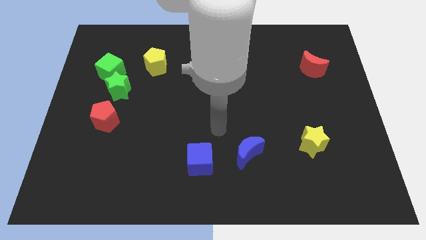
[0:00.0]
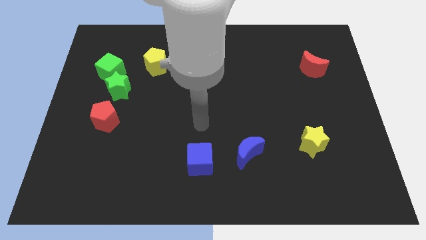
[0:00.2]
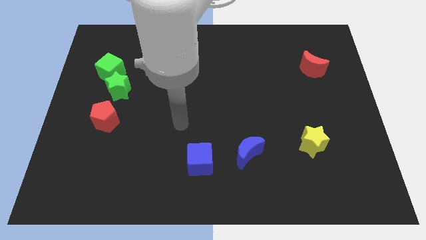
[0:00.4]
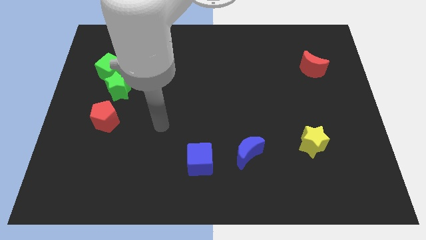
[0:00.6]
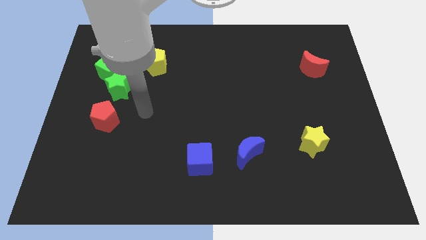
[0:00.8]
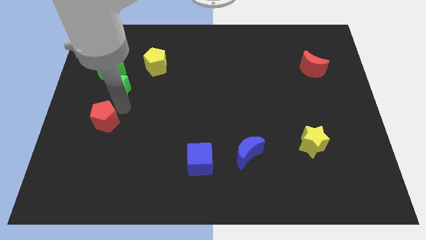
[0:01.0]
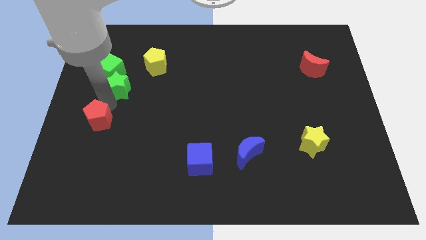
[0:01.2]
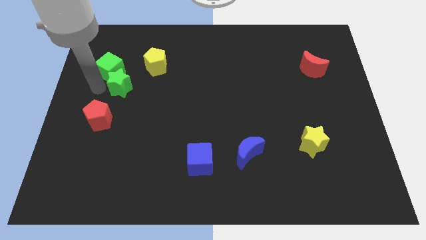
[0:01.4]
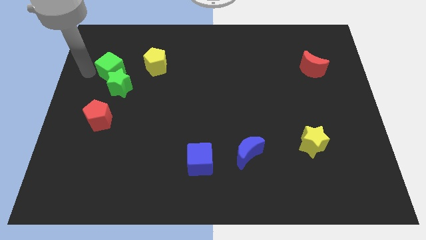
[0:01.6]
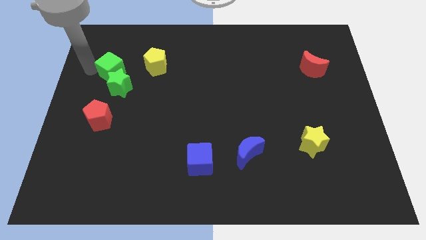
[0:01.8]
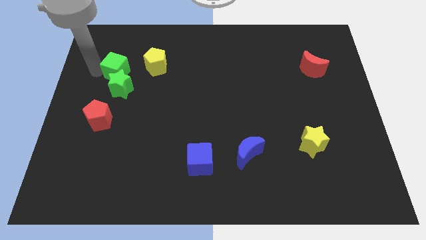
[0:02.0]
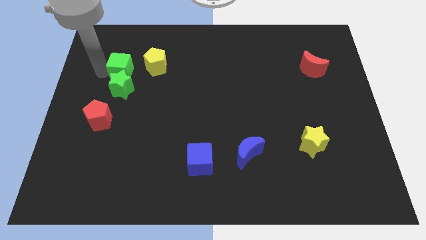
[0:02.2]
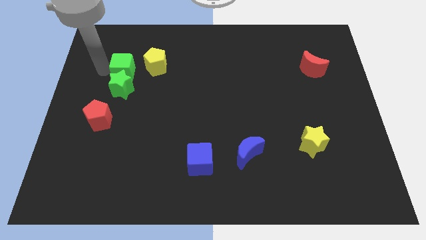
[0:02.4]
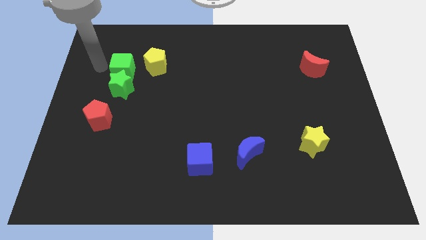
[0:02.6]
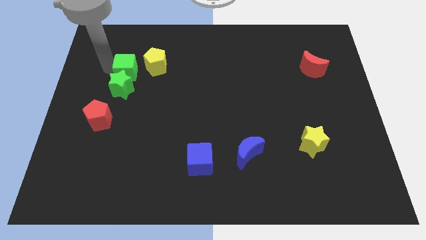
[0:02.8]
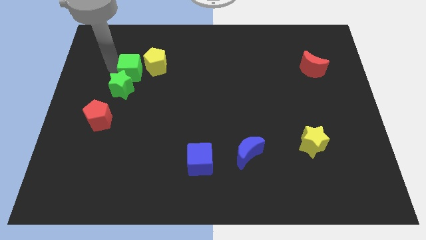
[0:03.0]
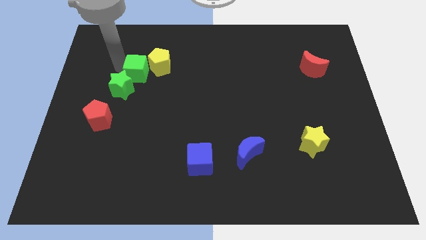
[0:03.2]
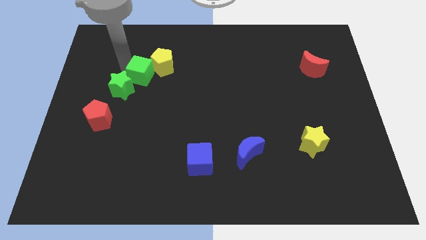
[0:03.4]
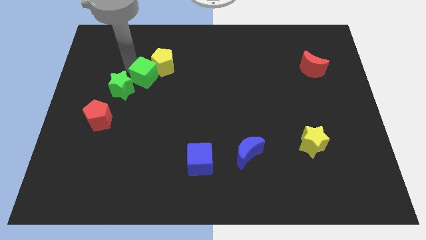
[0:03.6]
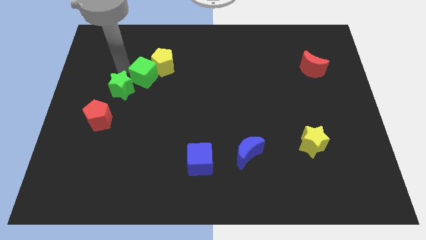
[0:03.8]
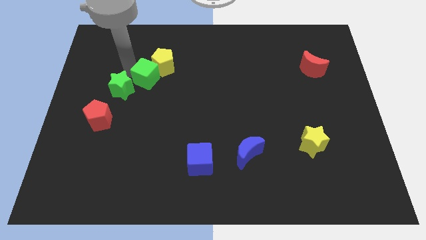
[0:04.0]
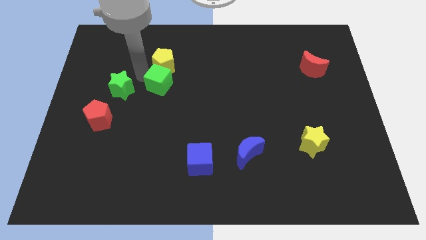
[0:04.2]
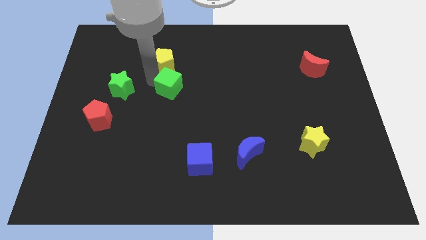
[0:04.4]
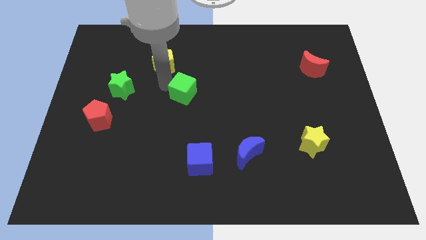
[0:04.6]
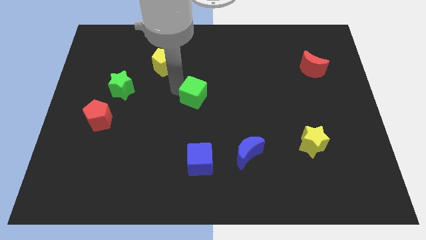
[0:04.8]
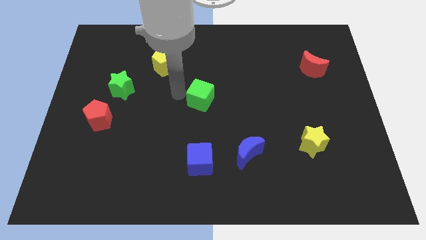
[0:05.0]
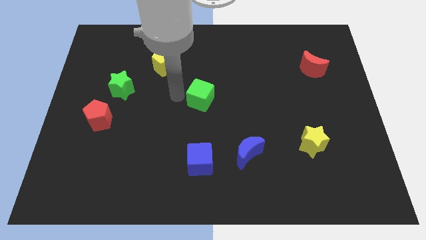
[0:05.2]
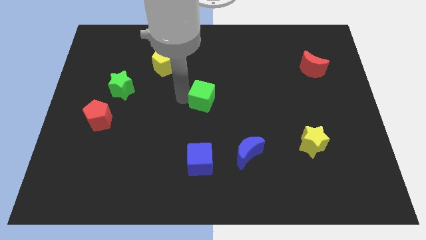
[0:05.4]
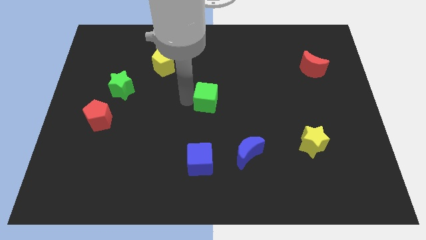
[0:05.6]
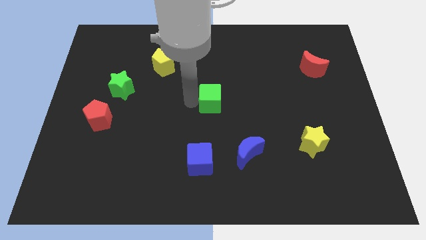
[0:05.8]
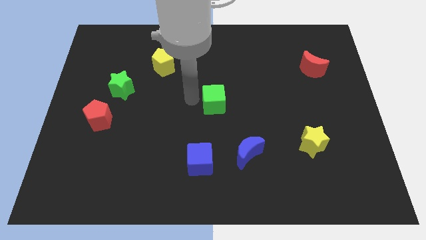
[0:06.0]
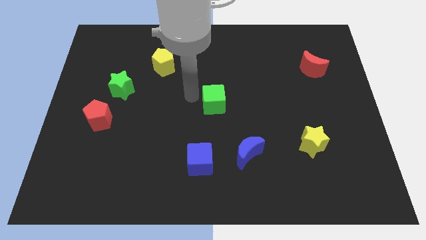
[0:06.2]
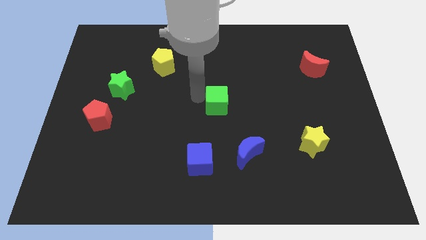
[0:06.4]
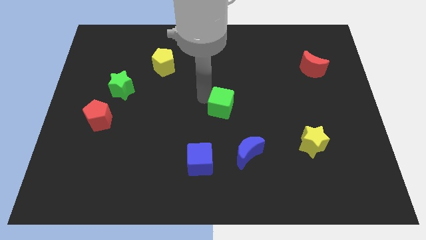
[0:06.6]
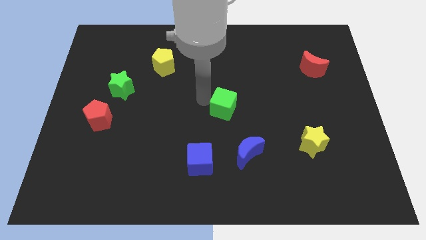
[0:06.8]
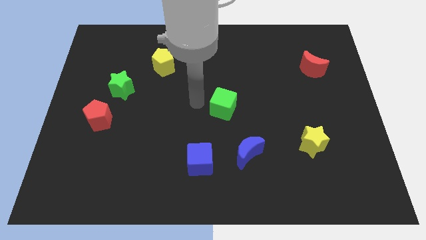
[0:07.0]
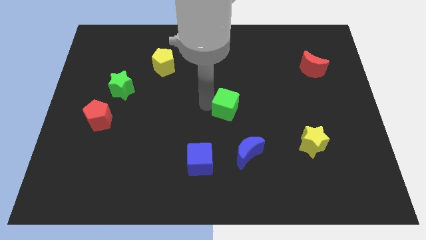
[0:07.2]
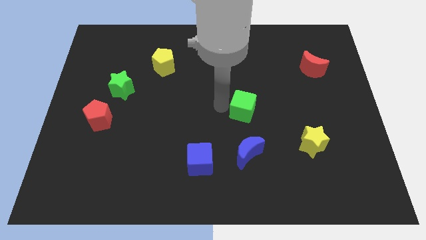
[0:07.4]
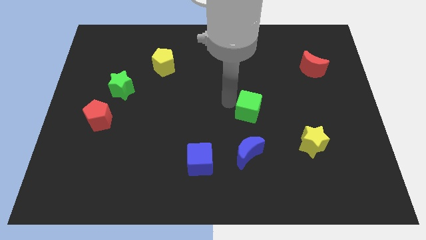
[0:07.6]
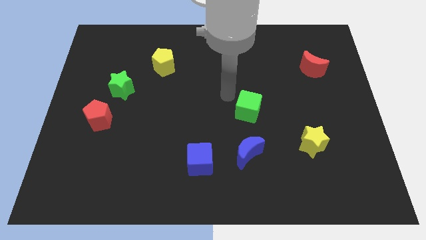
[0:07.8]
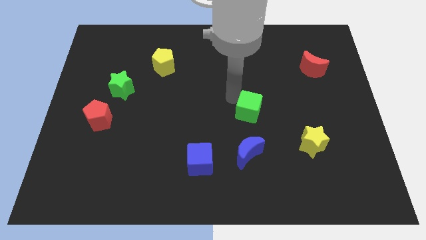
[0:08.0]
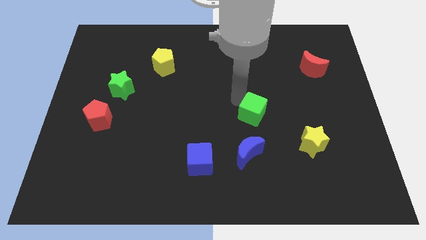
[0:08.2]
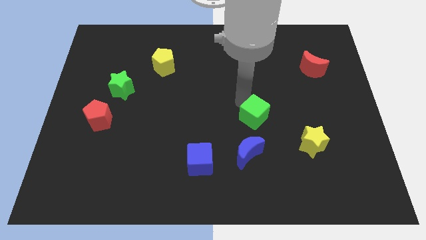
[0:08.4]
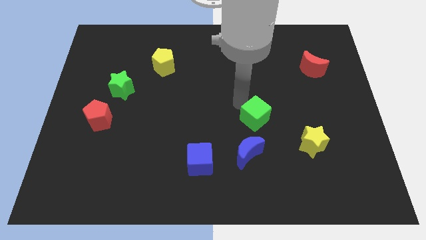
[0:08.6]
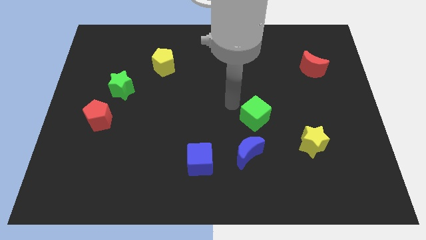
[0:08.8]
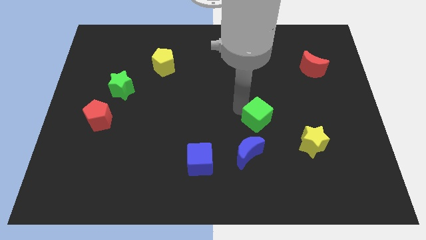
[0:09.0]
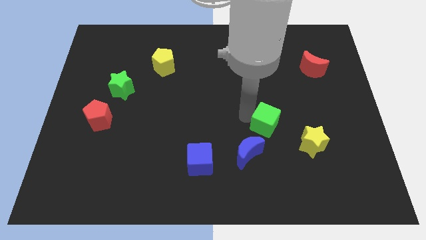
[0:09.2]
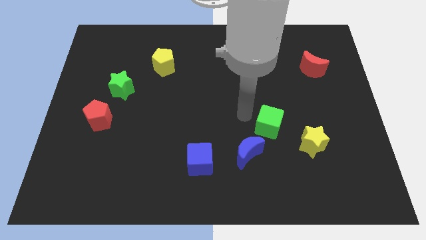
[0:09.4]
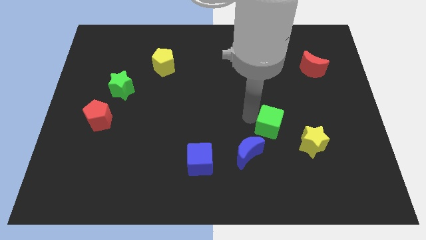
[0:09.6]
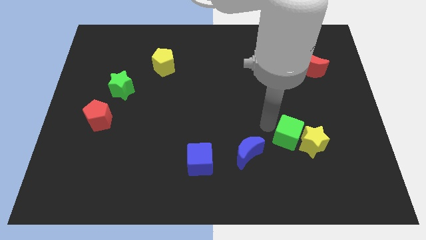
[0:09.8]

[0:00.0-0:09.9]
put the green cube towards the yellow star

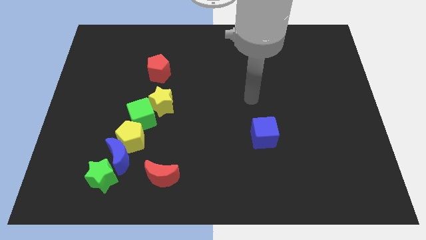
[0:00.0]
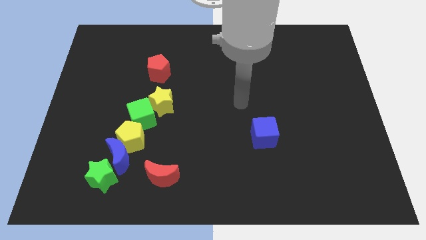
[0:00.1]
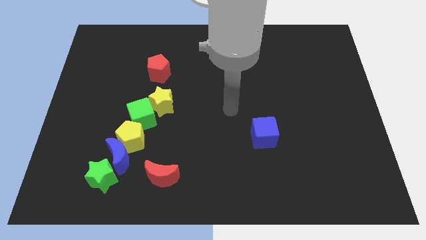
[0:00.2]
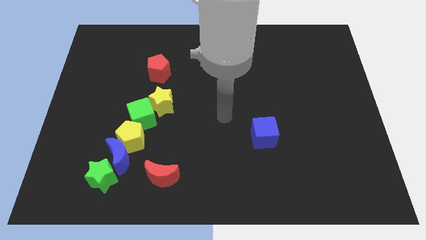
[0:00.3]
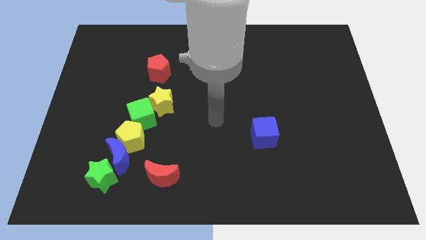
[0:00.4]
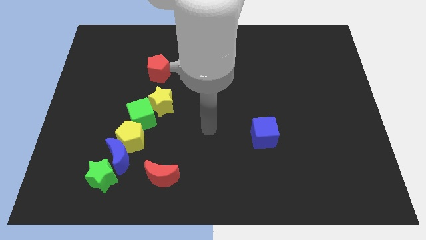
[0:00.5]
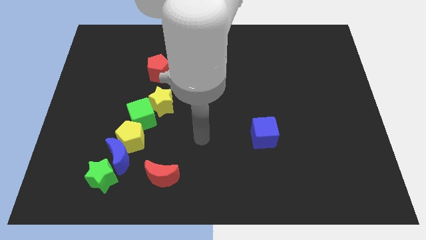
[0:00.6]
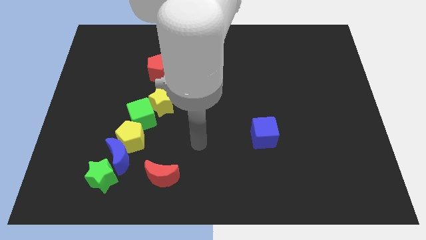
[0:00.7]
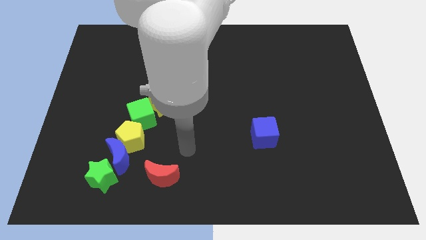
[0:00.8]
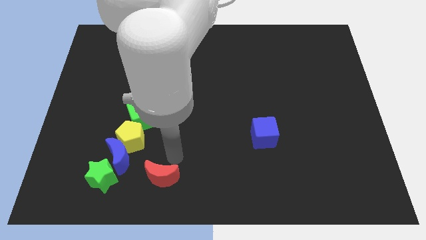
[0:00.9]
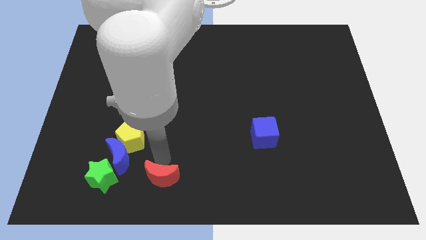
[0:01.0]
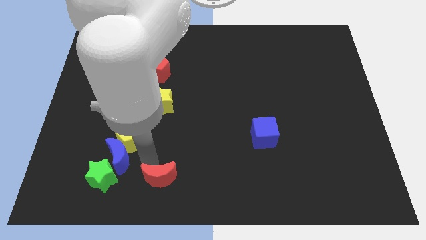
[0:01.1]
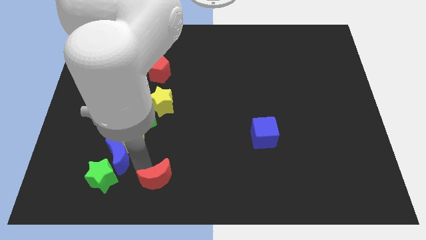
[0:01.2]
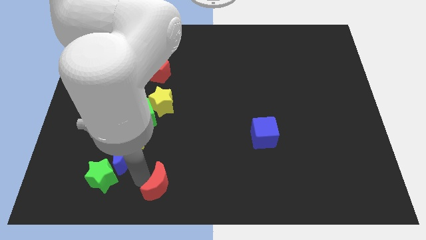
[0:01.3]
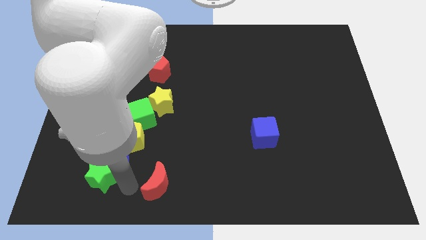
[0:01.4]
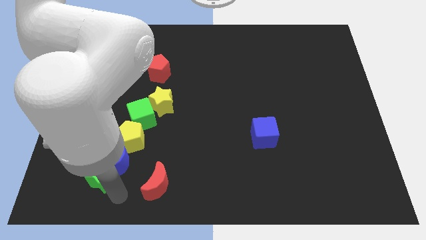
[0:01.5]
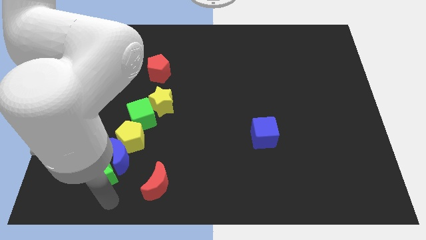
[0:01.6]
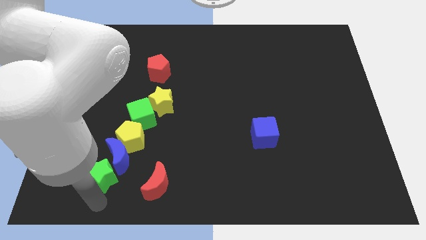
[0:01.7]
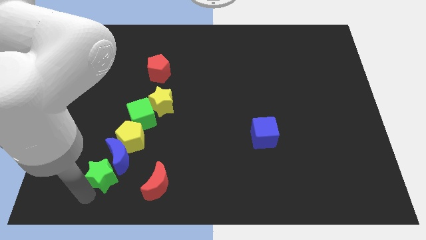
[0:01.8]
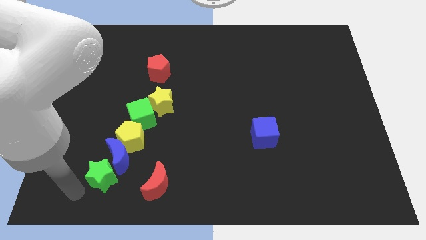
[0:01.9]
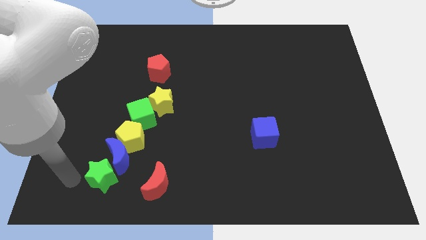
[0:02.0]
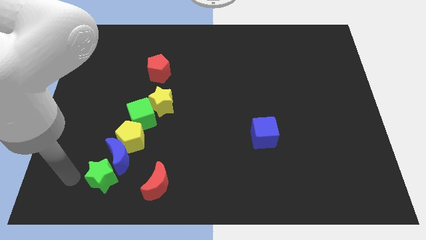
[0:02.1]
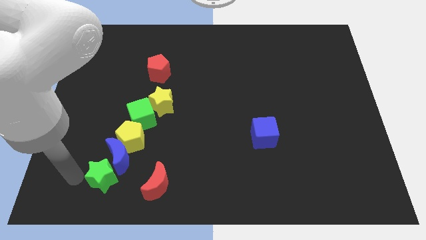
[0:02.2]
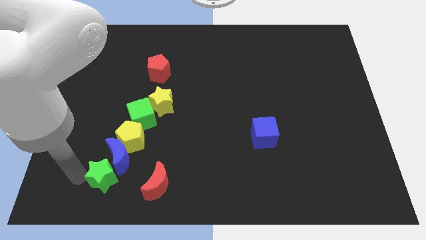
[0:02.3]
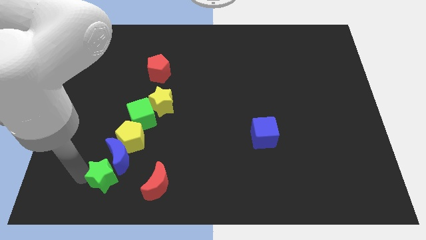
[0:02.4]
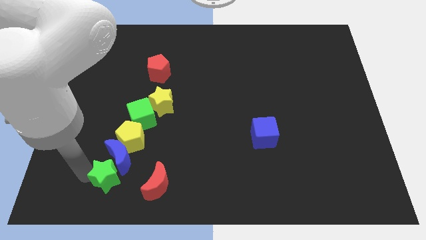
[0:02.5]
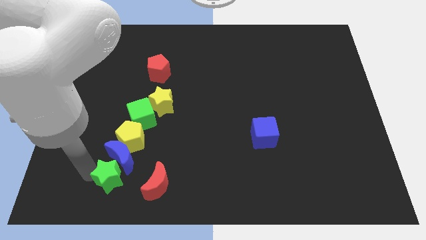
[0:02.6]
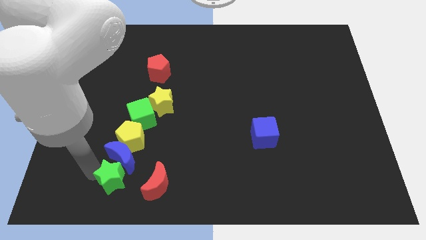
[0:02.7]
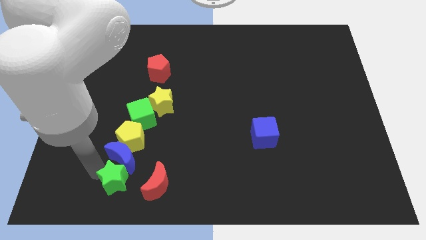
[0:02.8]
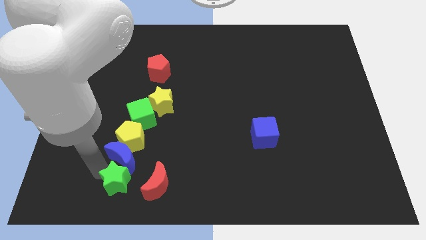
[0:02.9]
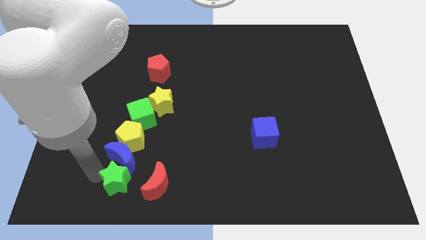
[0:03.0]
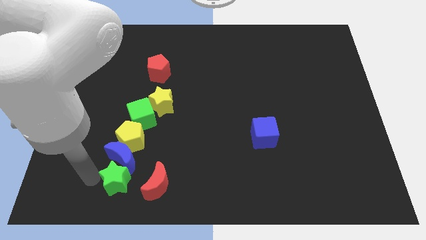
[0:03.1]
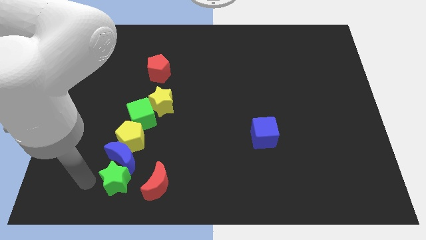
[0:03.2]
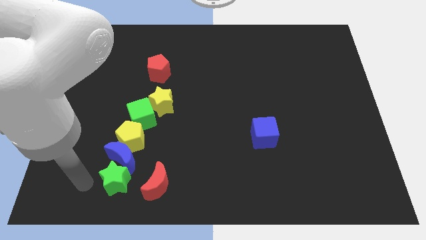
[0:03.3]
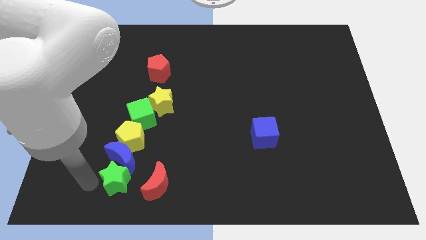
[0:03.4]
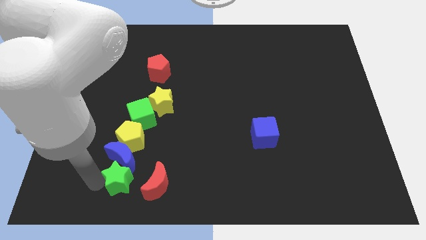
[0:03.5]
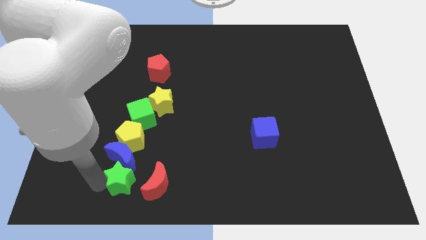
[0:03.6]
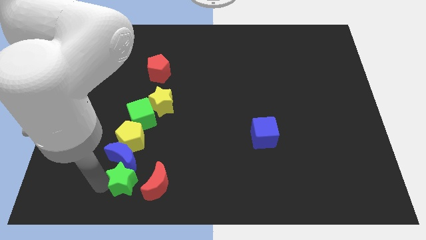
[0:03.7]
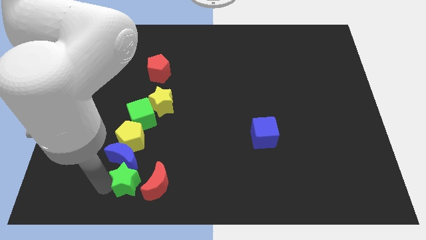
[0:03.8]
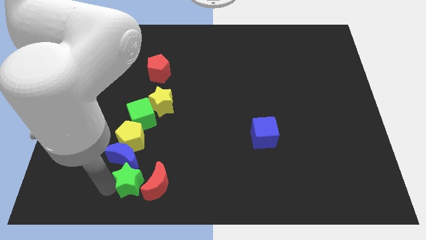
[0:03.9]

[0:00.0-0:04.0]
move the green star towards the red moon
